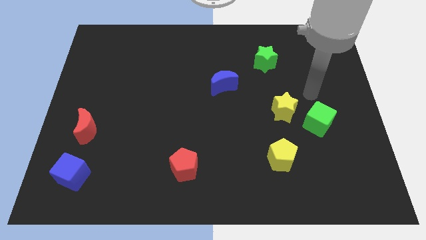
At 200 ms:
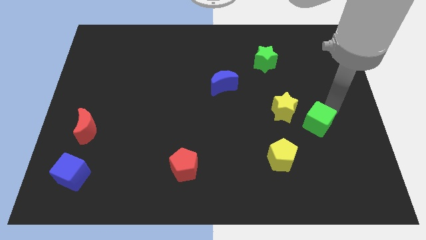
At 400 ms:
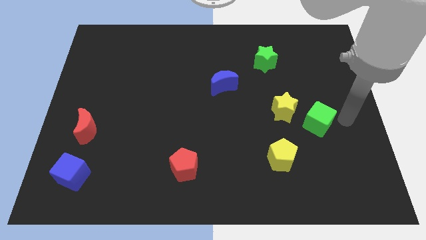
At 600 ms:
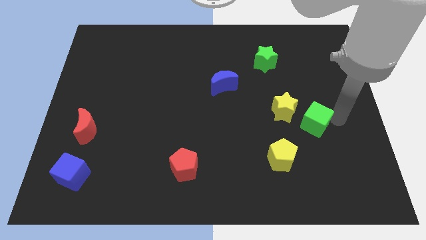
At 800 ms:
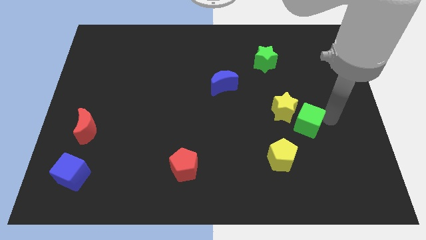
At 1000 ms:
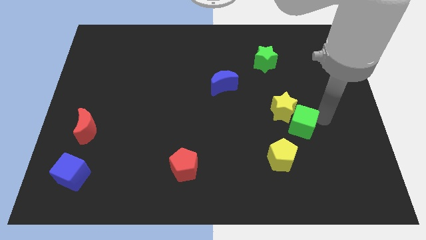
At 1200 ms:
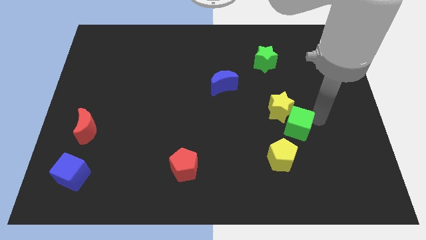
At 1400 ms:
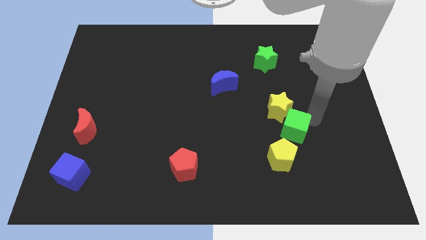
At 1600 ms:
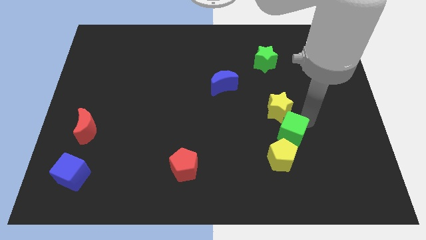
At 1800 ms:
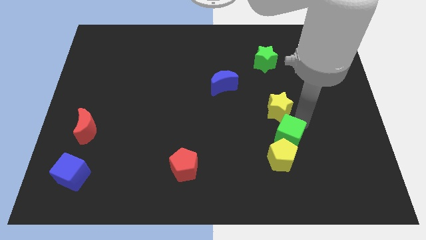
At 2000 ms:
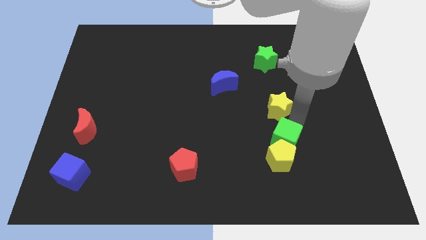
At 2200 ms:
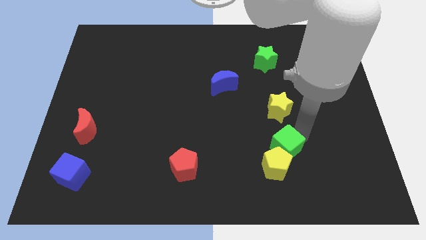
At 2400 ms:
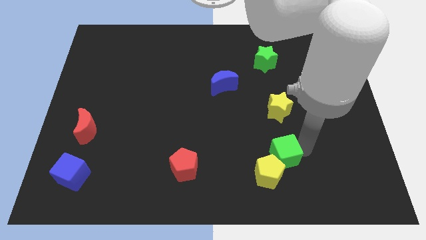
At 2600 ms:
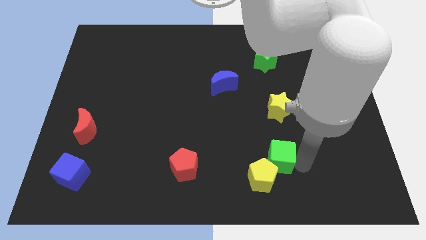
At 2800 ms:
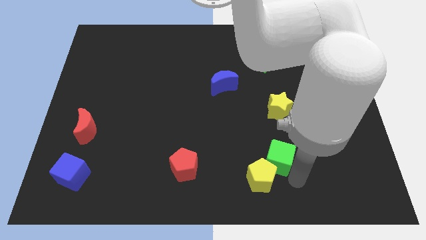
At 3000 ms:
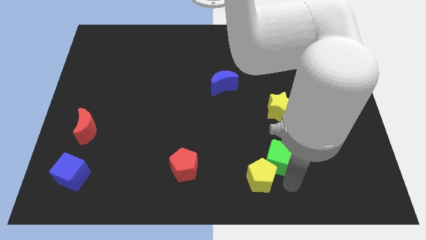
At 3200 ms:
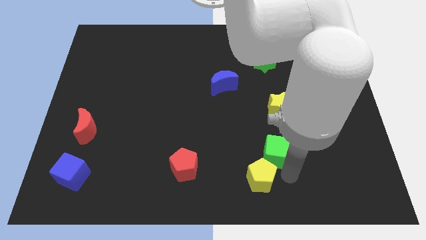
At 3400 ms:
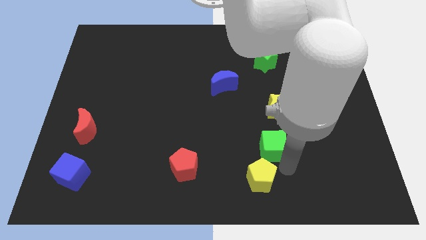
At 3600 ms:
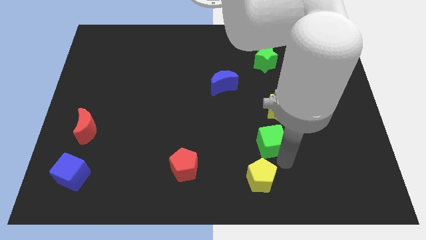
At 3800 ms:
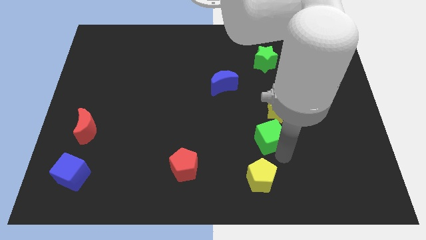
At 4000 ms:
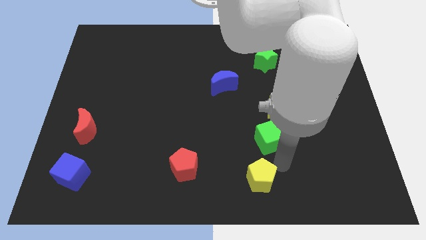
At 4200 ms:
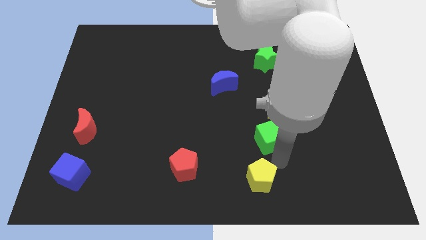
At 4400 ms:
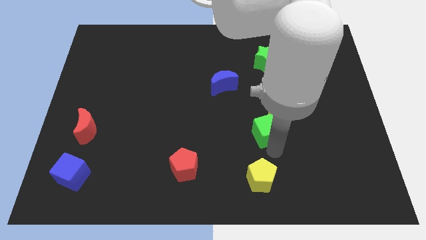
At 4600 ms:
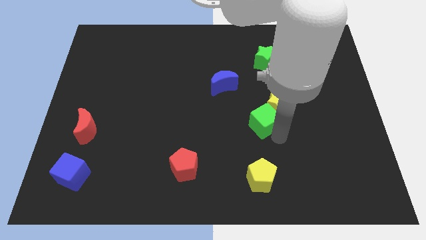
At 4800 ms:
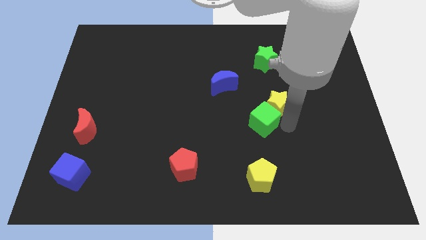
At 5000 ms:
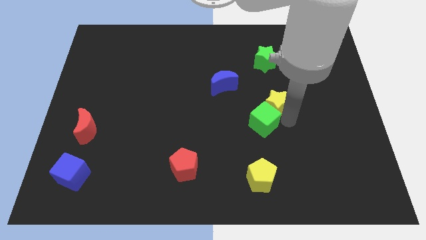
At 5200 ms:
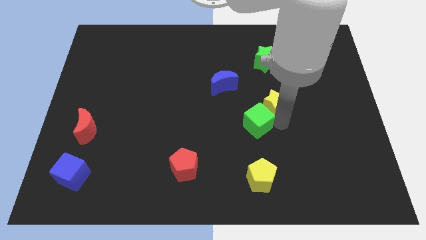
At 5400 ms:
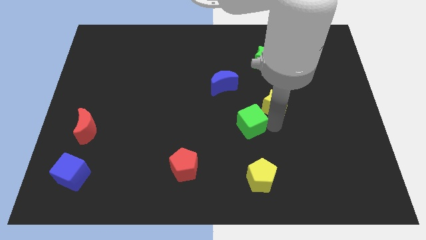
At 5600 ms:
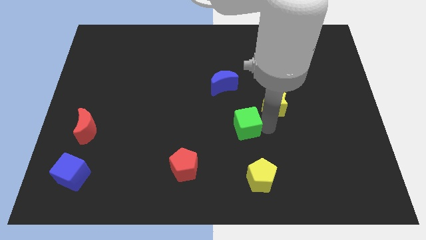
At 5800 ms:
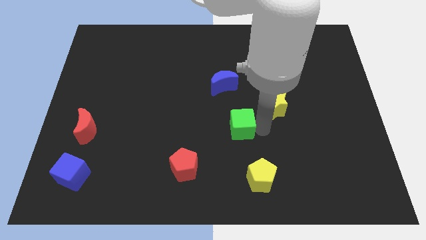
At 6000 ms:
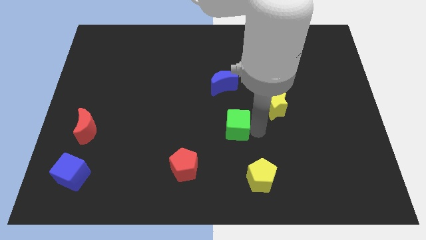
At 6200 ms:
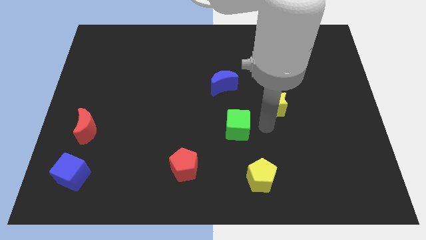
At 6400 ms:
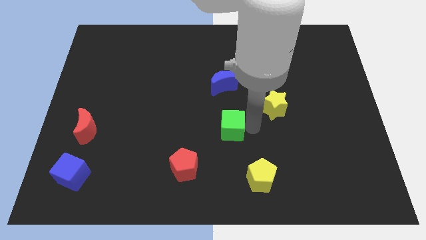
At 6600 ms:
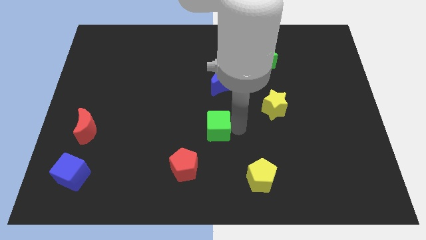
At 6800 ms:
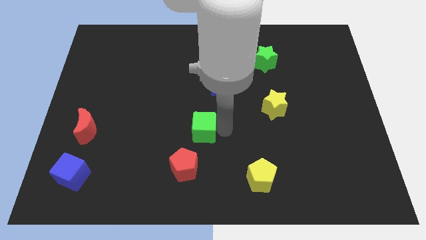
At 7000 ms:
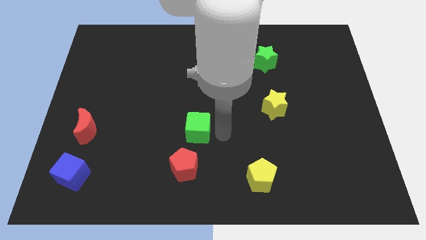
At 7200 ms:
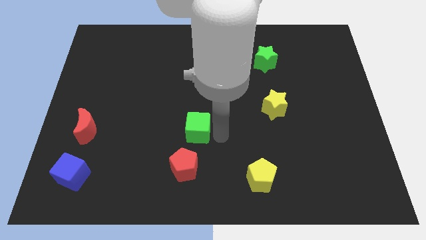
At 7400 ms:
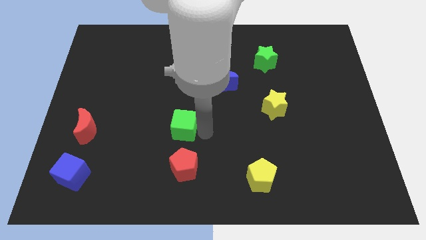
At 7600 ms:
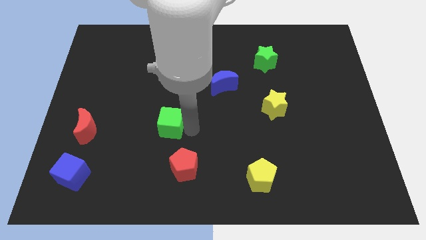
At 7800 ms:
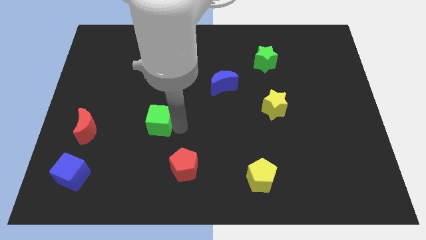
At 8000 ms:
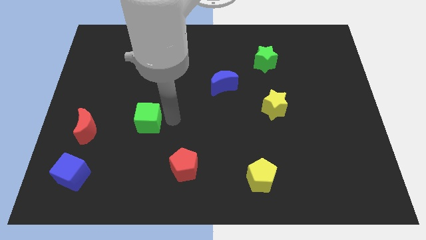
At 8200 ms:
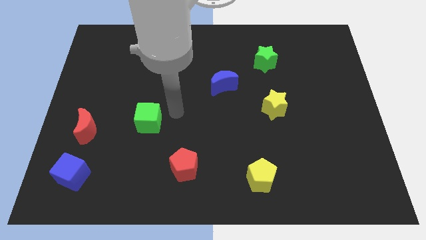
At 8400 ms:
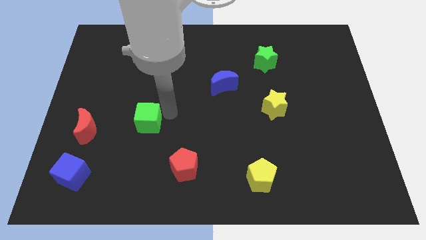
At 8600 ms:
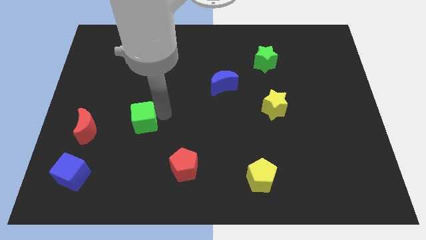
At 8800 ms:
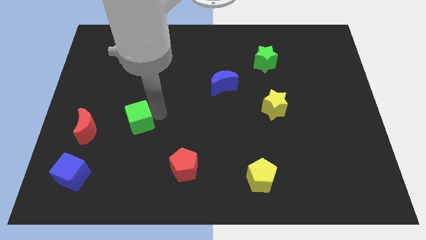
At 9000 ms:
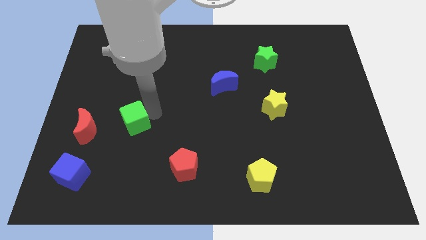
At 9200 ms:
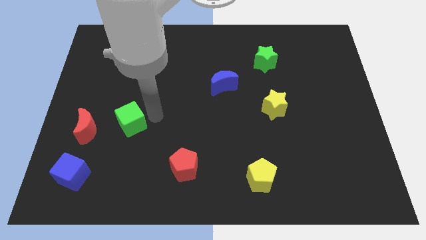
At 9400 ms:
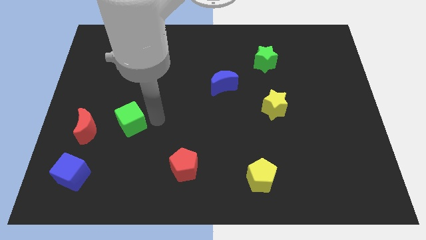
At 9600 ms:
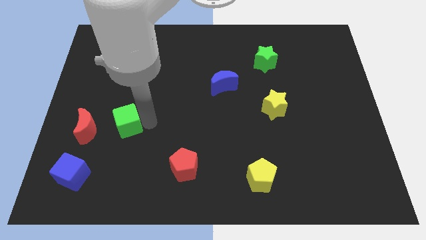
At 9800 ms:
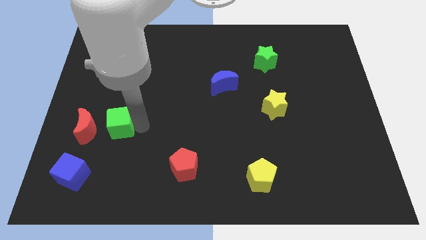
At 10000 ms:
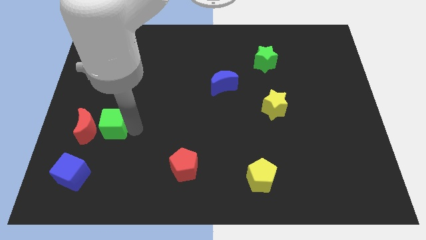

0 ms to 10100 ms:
slide the green cube to the red moon

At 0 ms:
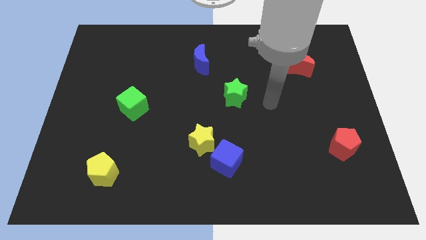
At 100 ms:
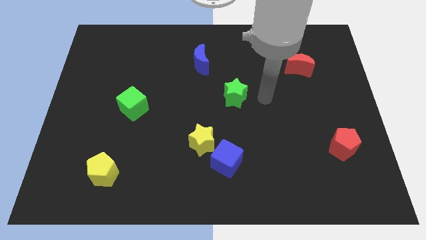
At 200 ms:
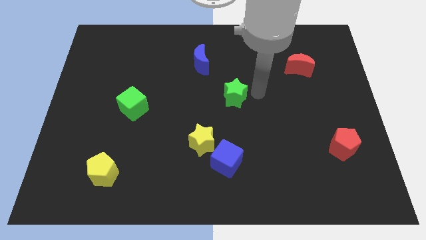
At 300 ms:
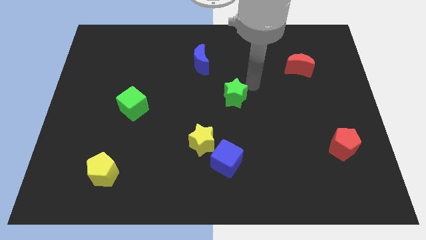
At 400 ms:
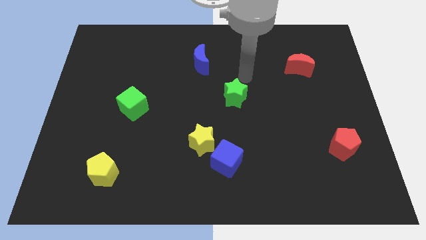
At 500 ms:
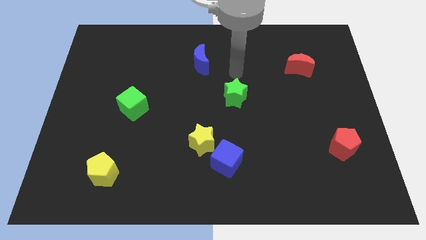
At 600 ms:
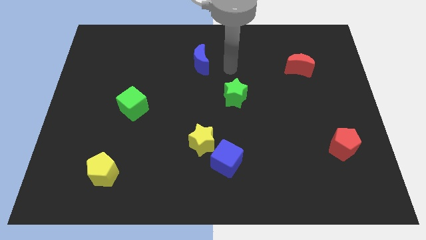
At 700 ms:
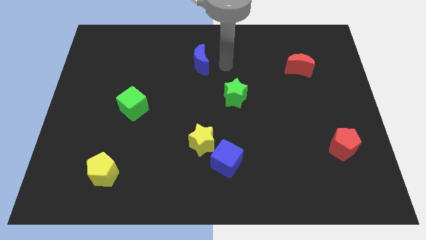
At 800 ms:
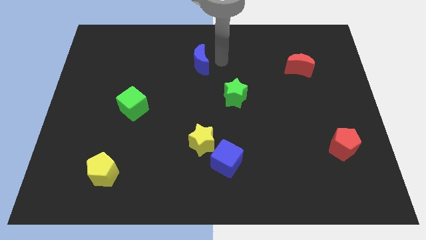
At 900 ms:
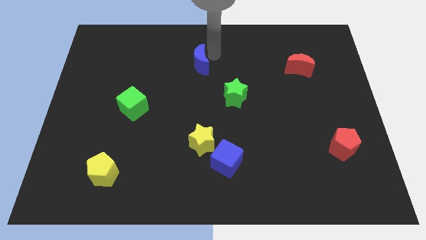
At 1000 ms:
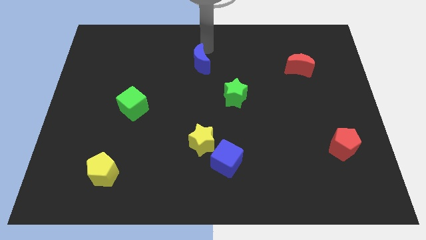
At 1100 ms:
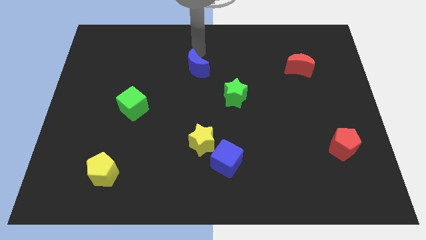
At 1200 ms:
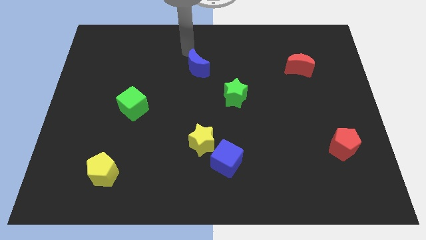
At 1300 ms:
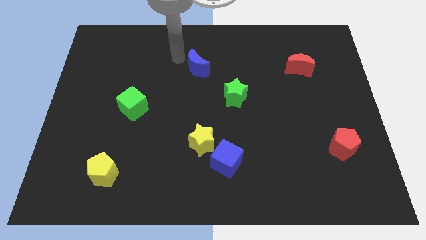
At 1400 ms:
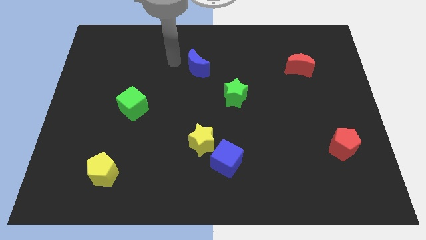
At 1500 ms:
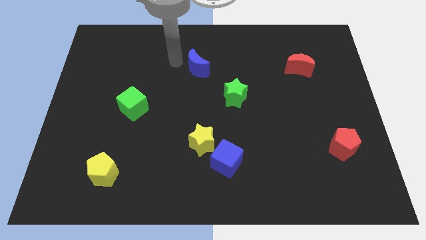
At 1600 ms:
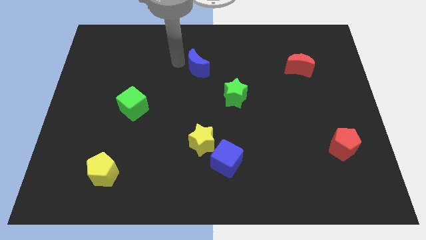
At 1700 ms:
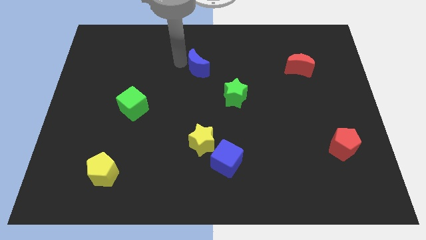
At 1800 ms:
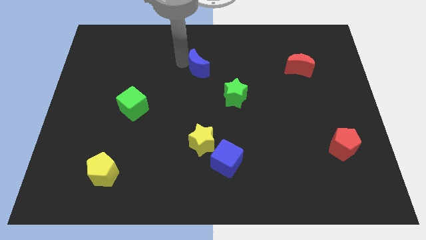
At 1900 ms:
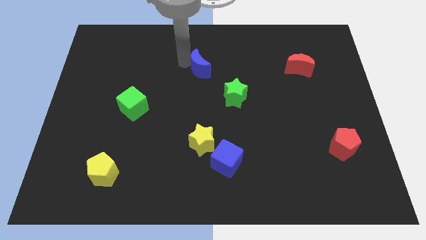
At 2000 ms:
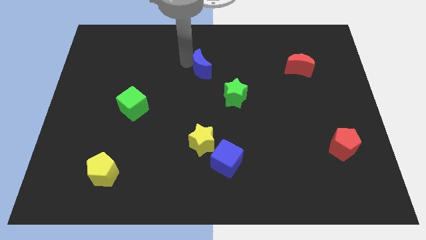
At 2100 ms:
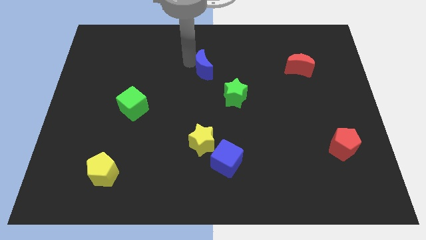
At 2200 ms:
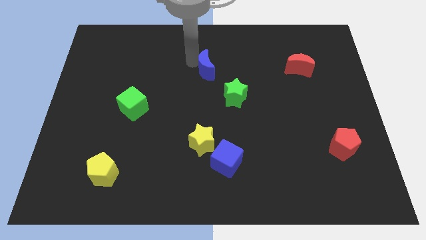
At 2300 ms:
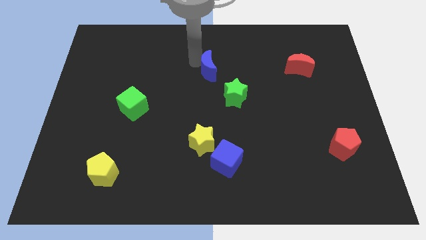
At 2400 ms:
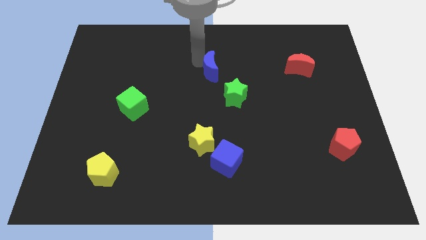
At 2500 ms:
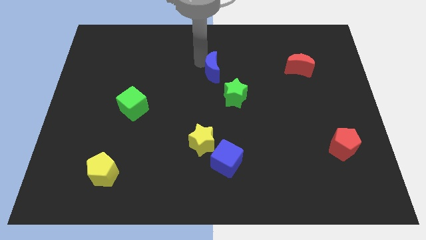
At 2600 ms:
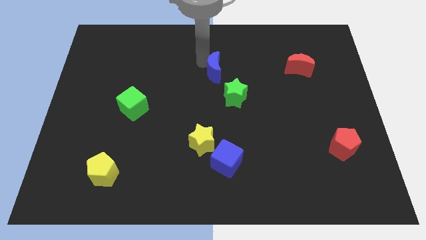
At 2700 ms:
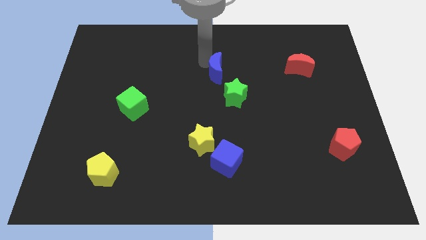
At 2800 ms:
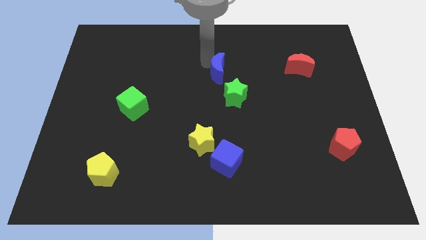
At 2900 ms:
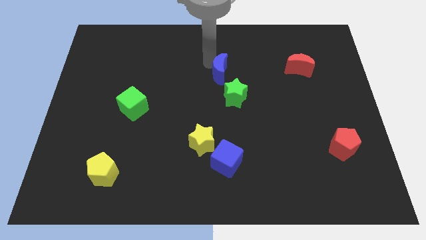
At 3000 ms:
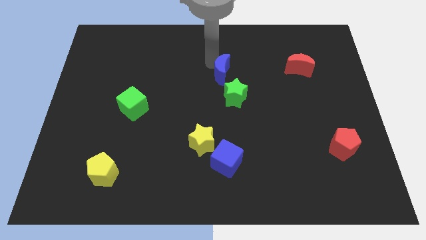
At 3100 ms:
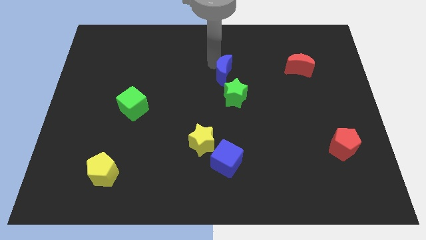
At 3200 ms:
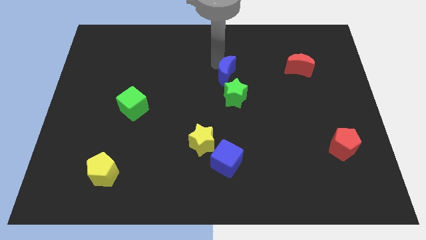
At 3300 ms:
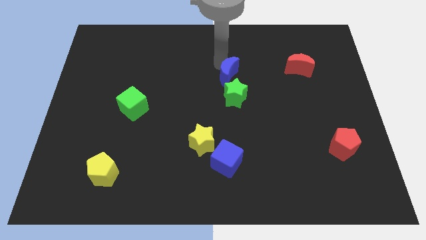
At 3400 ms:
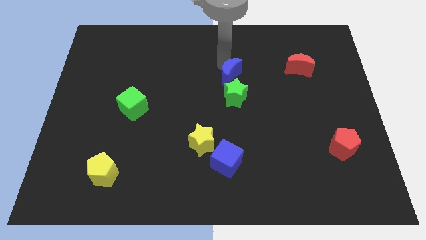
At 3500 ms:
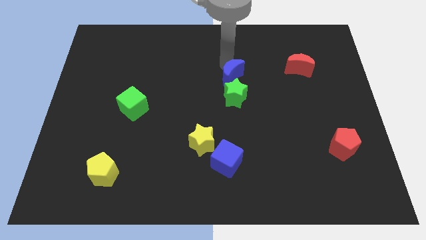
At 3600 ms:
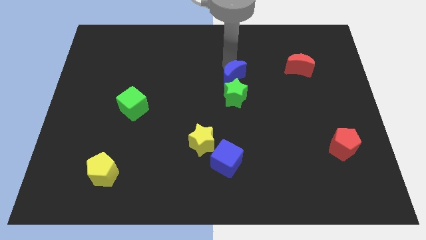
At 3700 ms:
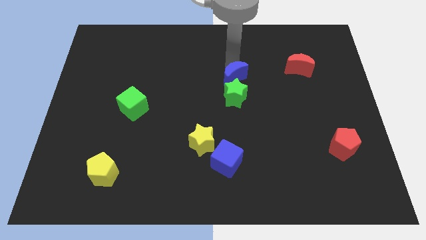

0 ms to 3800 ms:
slide the blue moon to the green star
